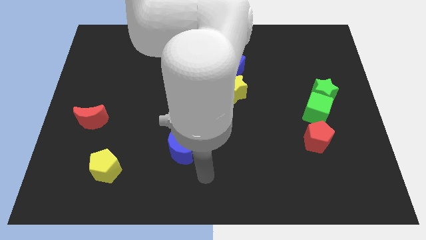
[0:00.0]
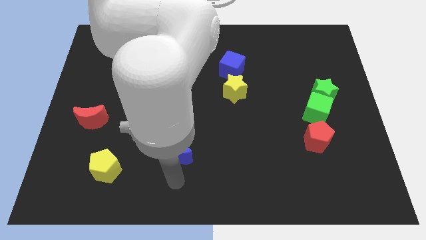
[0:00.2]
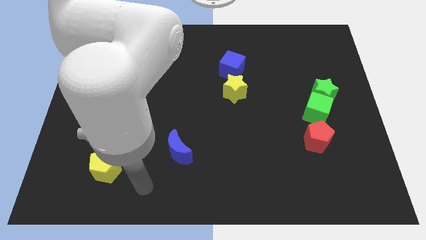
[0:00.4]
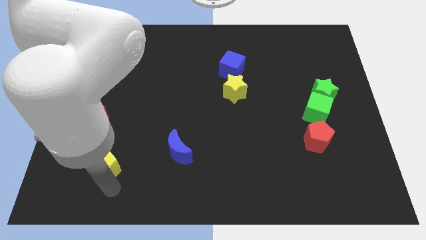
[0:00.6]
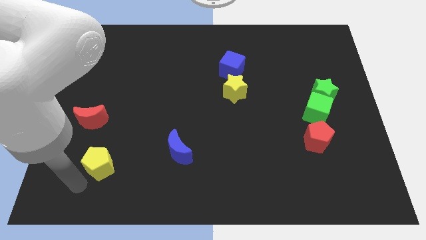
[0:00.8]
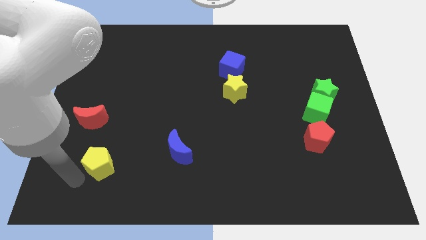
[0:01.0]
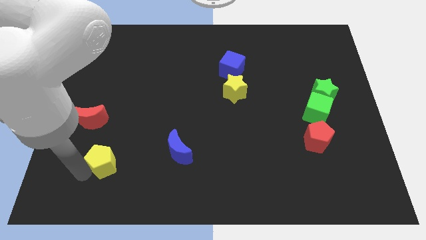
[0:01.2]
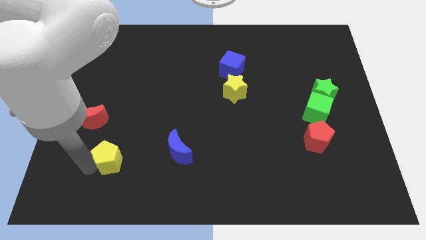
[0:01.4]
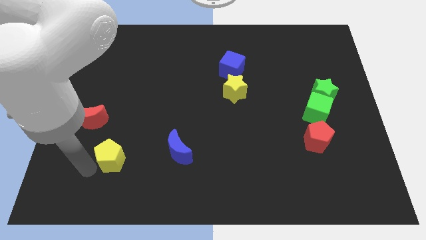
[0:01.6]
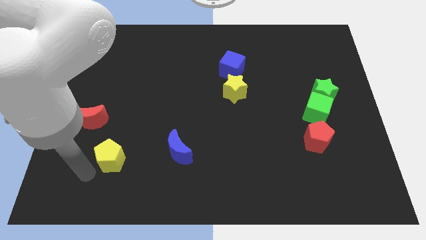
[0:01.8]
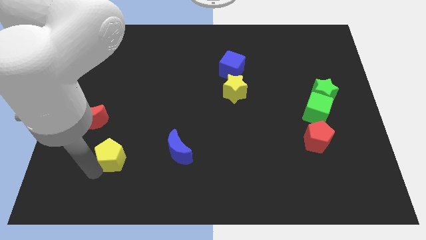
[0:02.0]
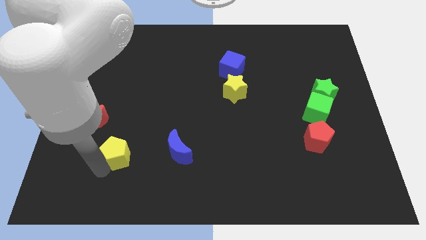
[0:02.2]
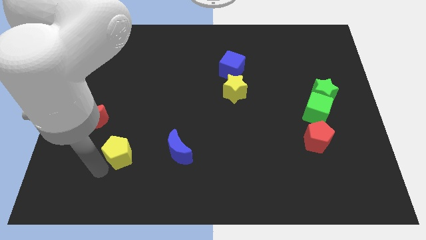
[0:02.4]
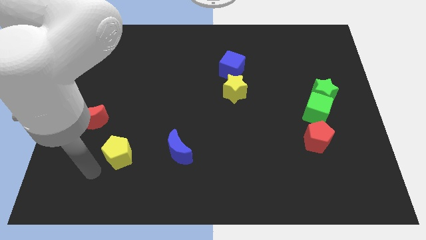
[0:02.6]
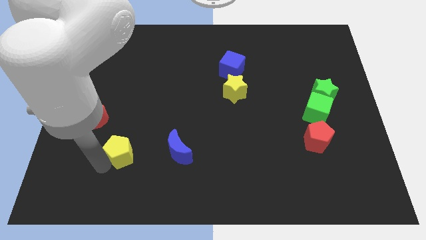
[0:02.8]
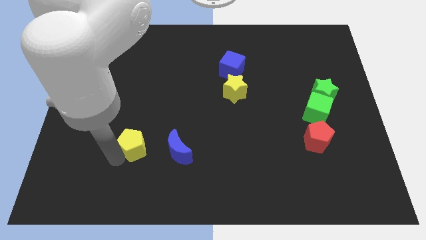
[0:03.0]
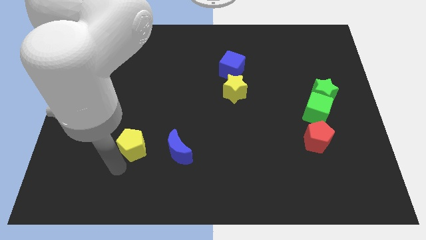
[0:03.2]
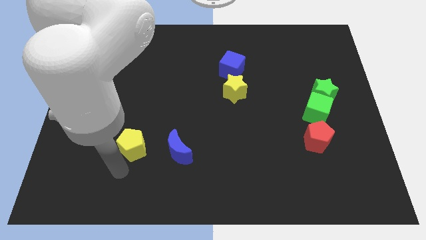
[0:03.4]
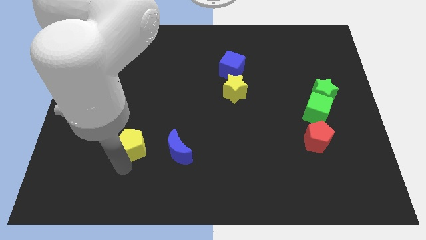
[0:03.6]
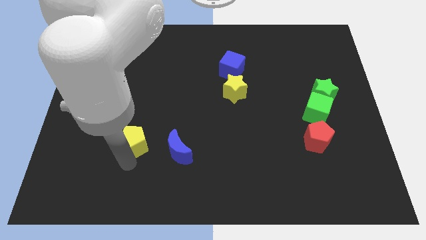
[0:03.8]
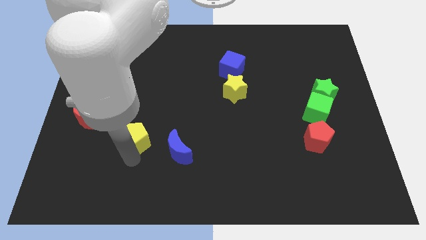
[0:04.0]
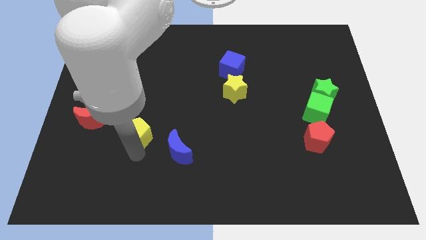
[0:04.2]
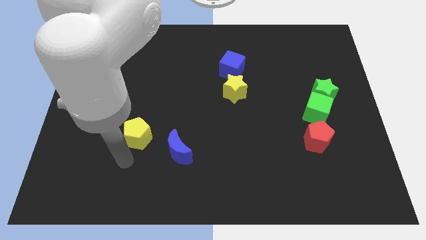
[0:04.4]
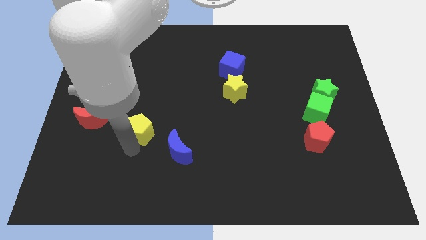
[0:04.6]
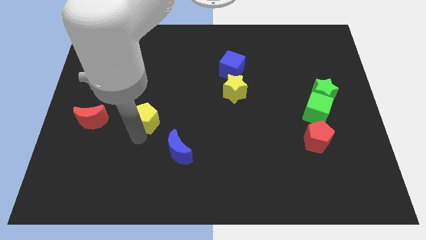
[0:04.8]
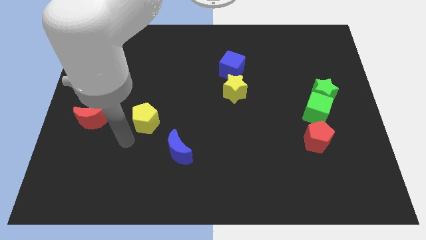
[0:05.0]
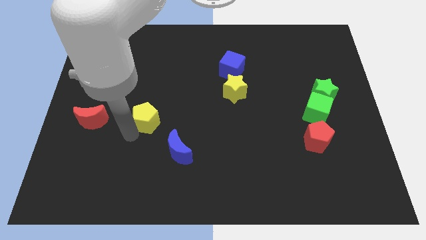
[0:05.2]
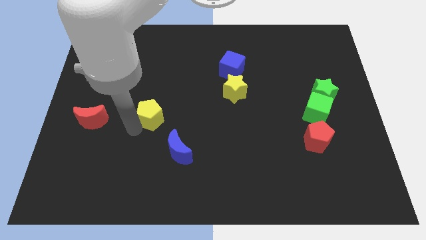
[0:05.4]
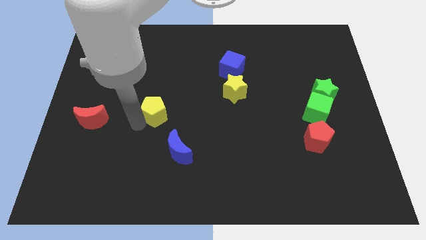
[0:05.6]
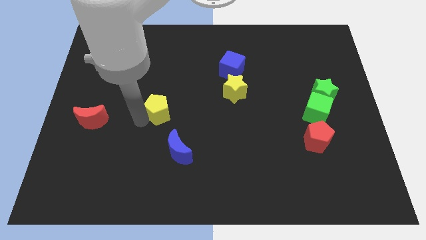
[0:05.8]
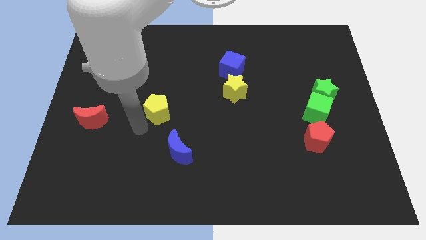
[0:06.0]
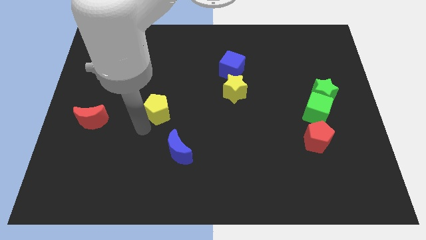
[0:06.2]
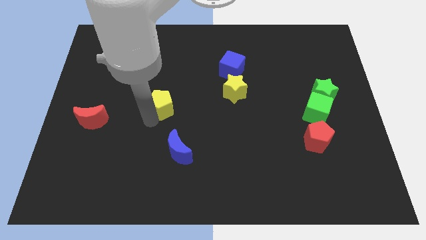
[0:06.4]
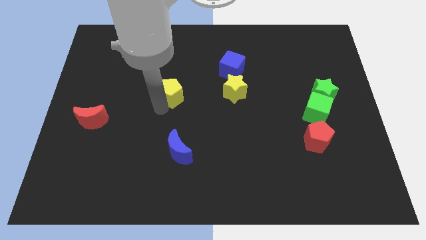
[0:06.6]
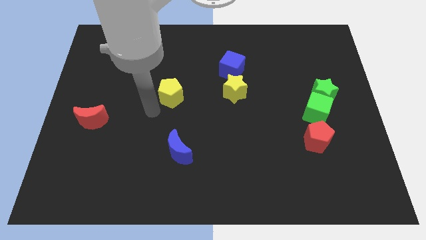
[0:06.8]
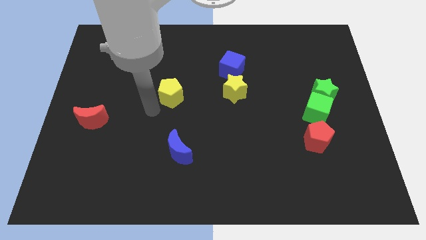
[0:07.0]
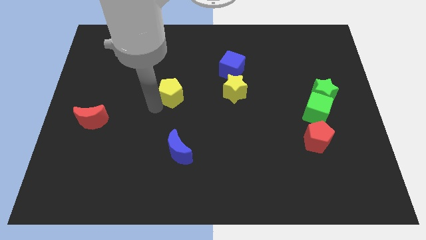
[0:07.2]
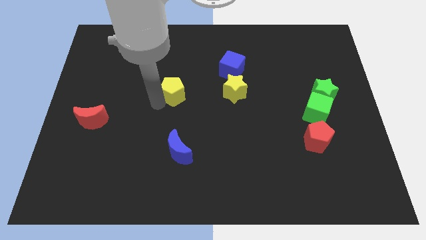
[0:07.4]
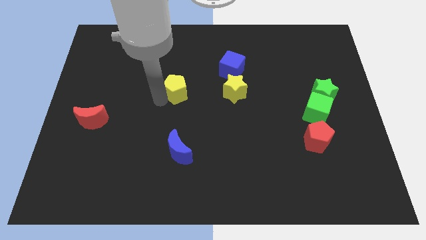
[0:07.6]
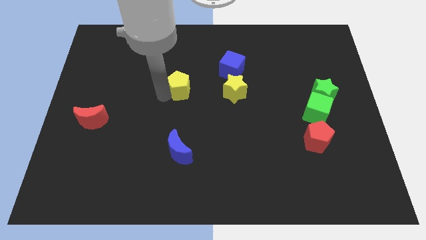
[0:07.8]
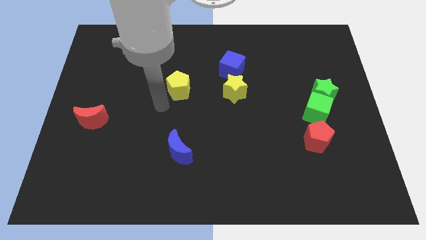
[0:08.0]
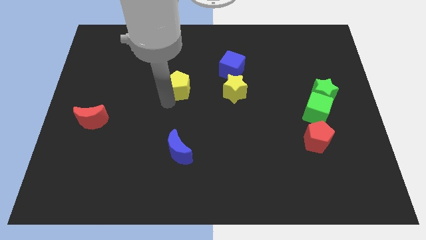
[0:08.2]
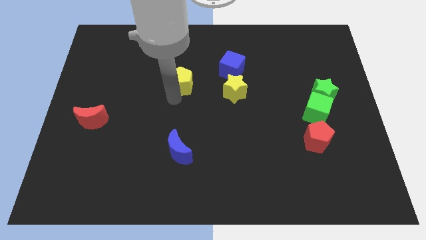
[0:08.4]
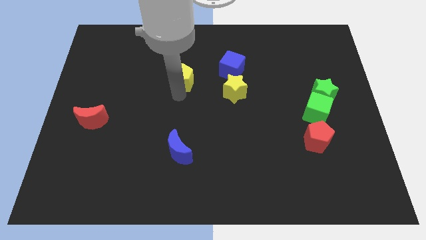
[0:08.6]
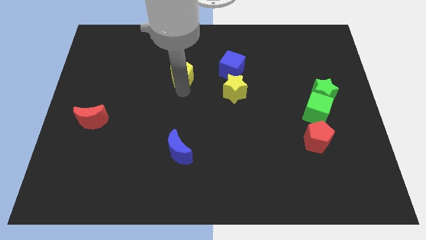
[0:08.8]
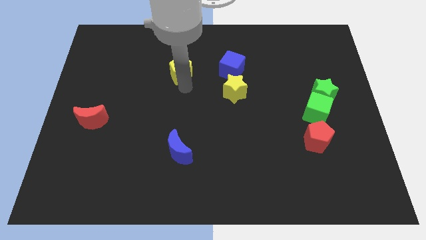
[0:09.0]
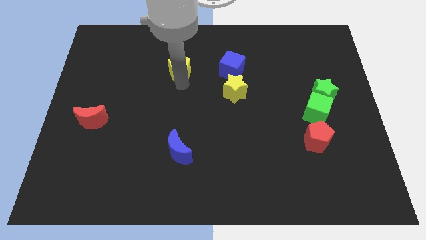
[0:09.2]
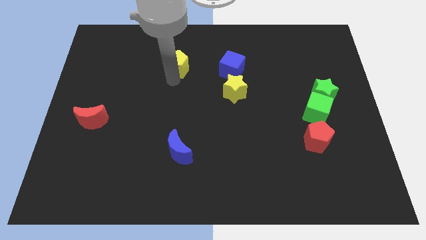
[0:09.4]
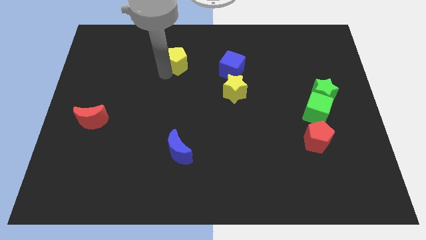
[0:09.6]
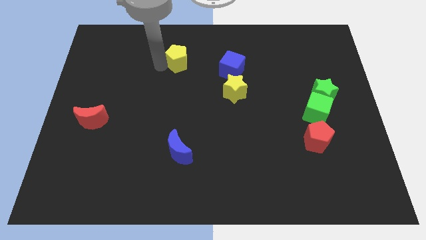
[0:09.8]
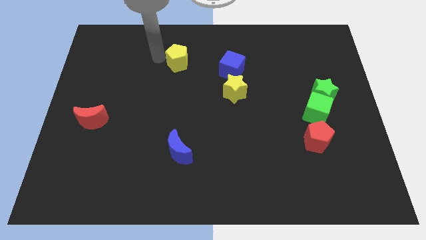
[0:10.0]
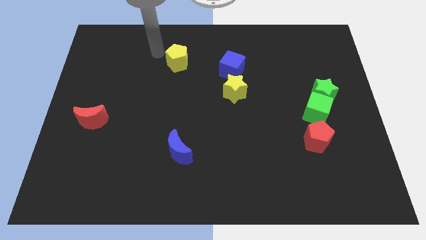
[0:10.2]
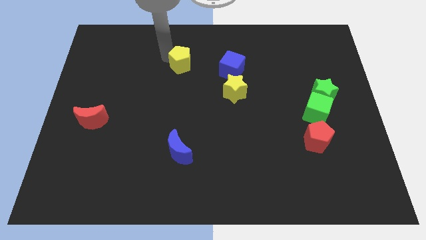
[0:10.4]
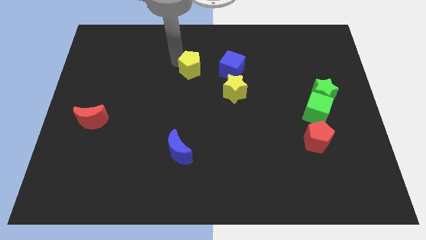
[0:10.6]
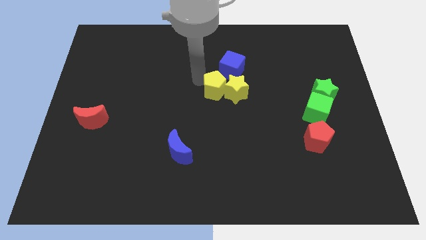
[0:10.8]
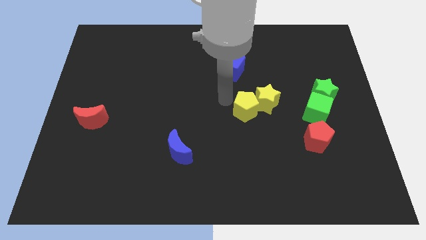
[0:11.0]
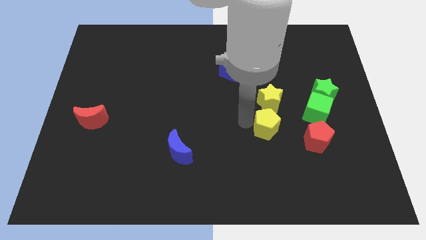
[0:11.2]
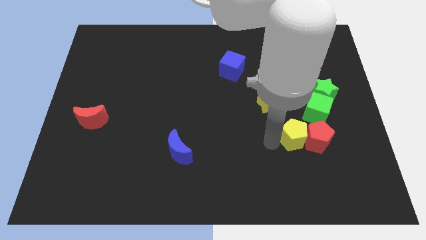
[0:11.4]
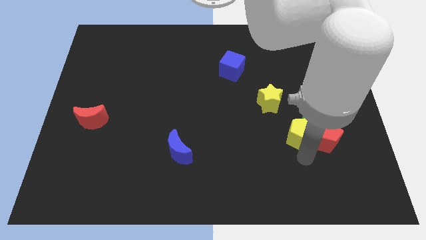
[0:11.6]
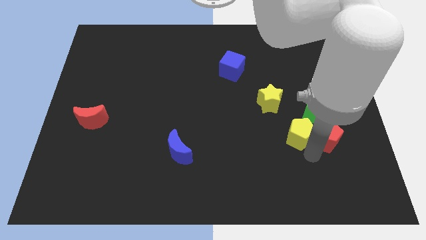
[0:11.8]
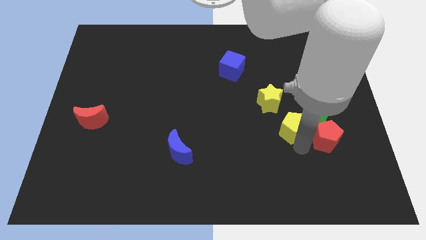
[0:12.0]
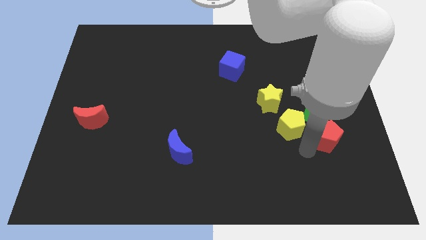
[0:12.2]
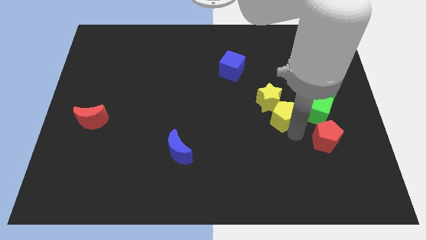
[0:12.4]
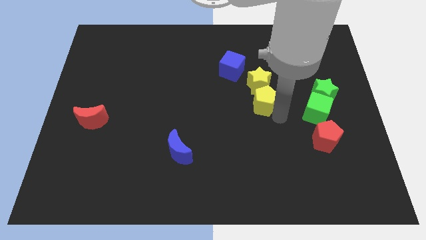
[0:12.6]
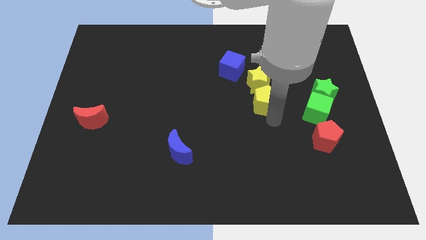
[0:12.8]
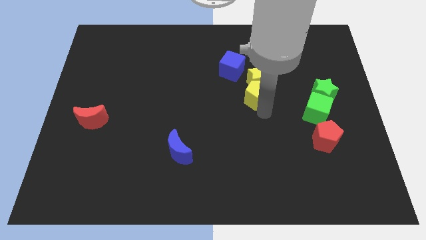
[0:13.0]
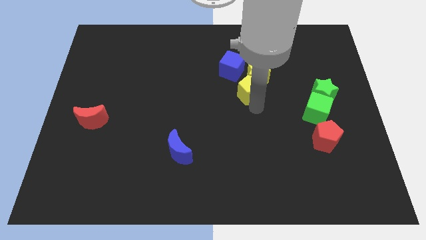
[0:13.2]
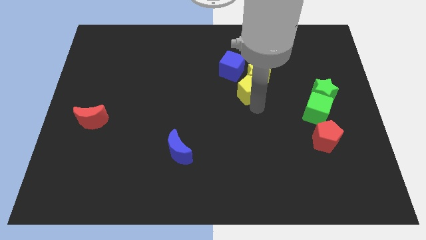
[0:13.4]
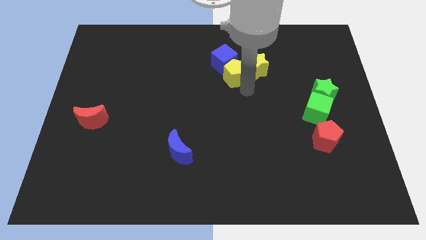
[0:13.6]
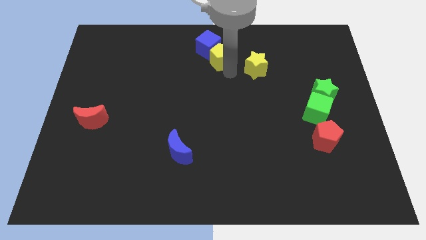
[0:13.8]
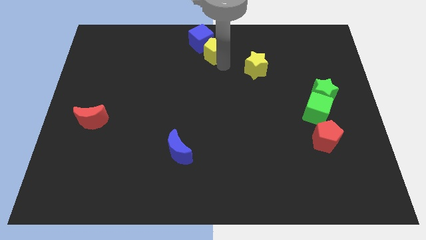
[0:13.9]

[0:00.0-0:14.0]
put the yellow pentagon to the top
